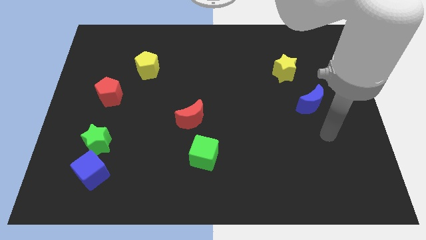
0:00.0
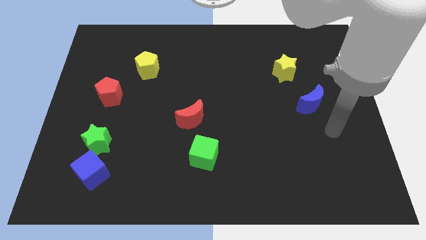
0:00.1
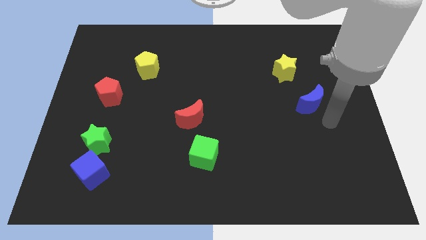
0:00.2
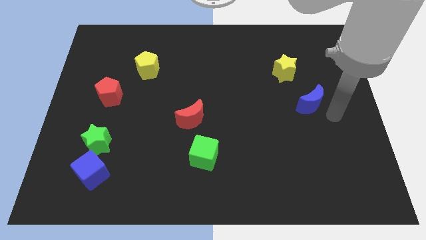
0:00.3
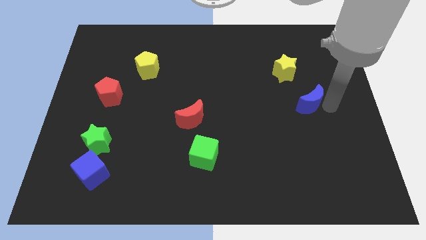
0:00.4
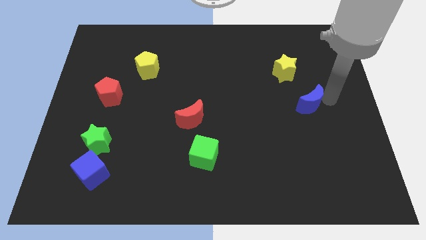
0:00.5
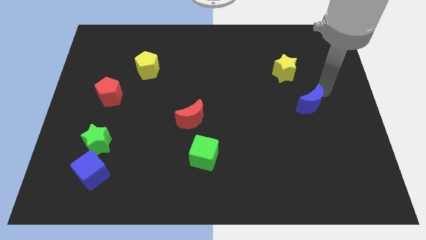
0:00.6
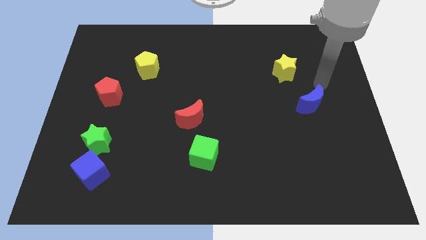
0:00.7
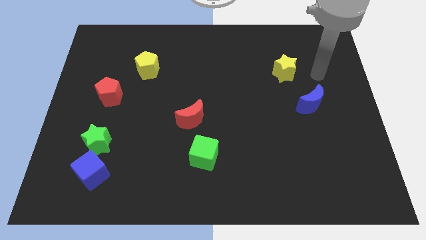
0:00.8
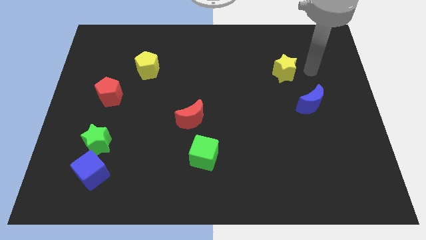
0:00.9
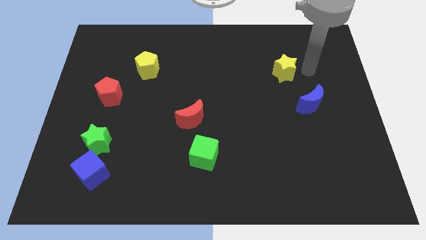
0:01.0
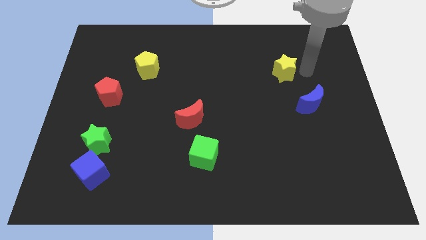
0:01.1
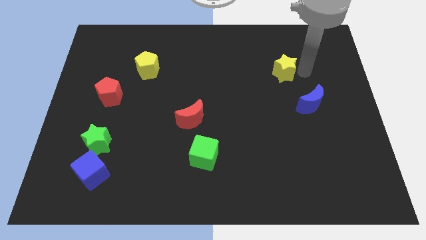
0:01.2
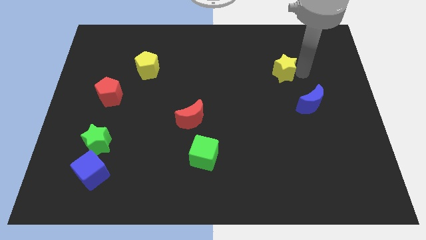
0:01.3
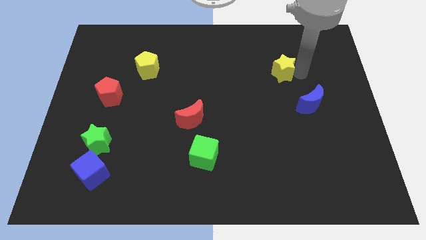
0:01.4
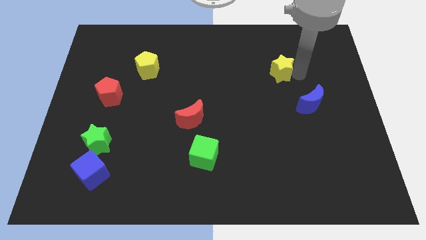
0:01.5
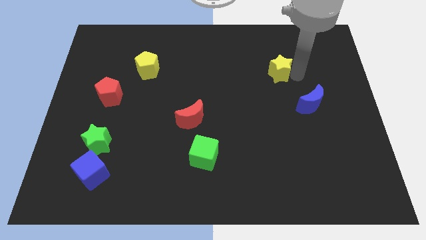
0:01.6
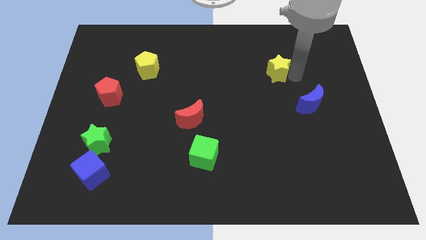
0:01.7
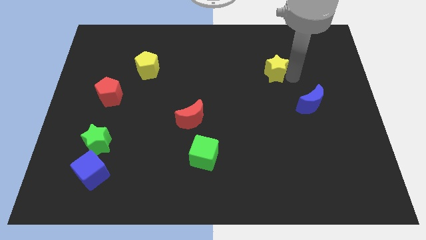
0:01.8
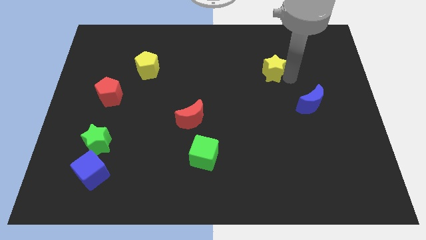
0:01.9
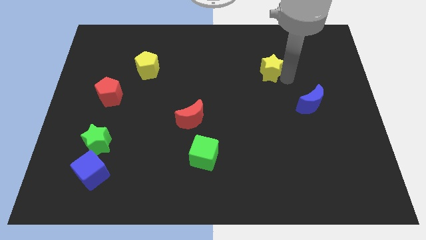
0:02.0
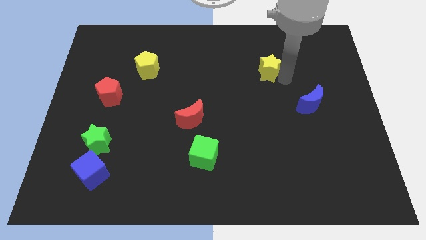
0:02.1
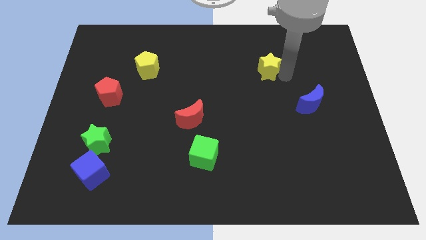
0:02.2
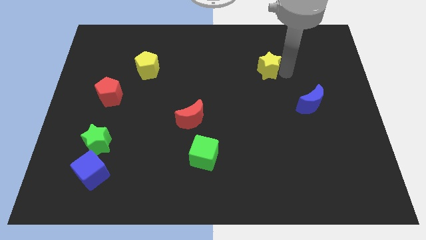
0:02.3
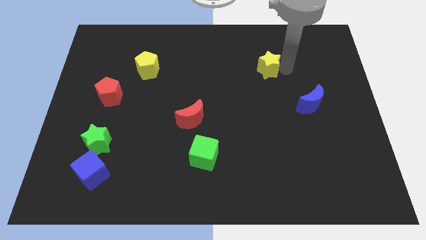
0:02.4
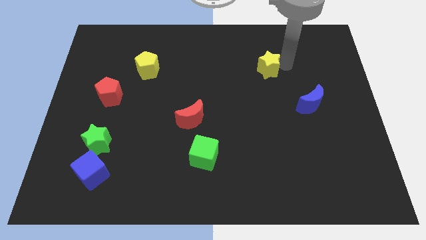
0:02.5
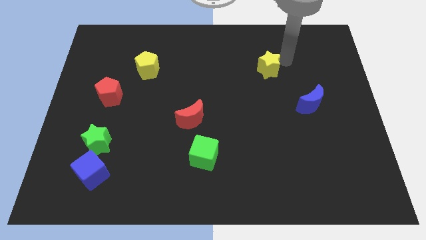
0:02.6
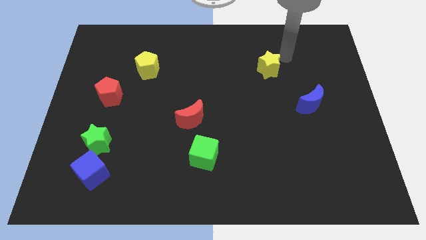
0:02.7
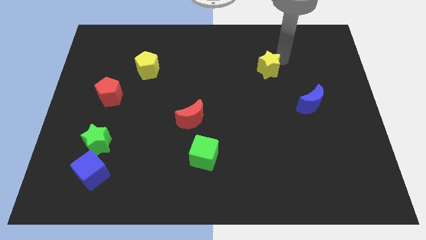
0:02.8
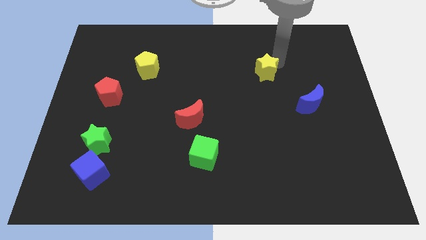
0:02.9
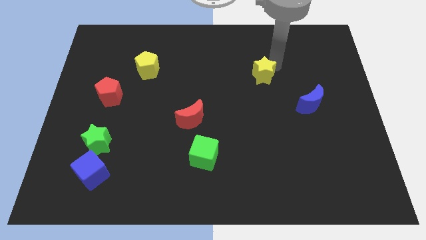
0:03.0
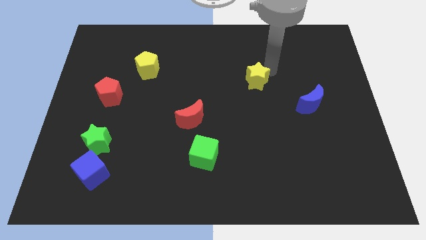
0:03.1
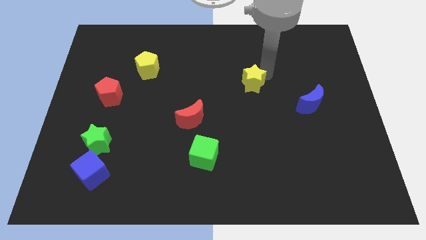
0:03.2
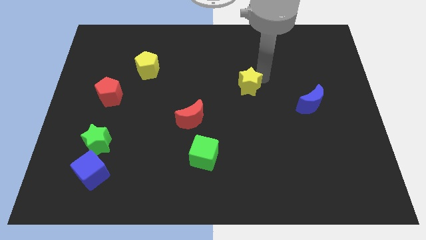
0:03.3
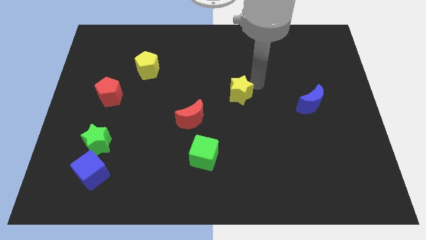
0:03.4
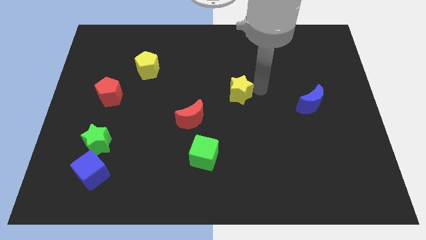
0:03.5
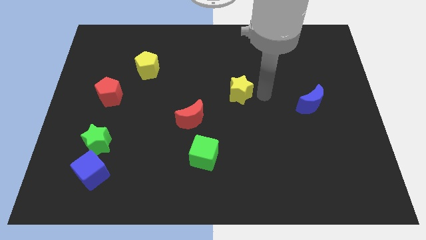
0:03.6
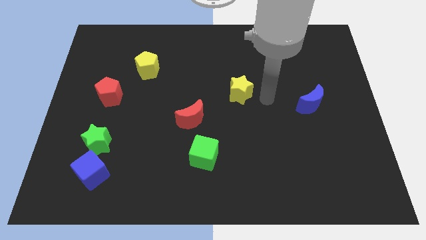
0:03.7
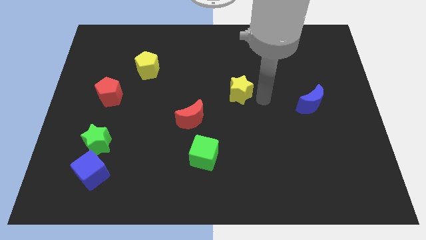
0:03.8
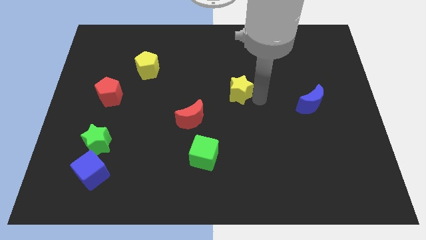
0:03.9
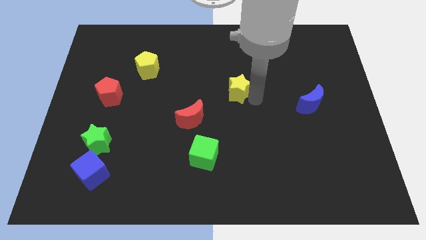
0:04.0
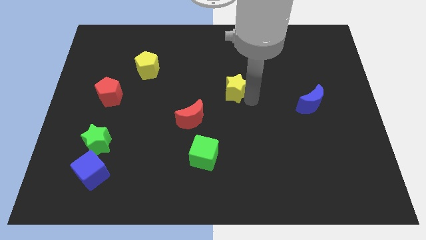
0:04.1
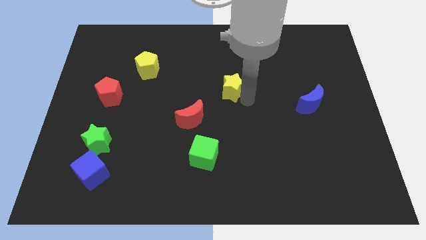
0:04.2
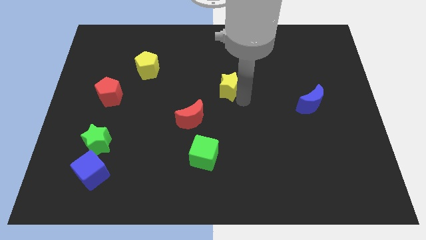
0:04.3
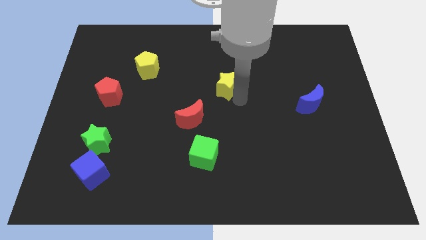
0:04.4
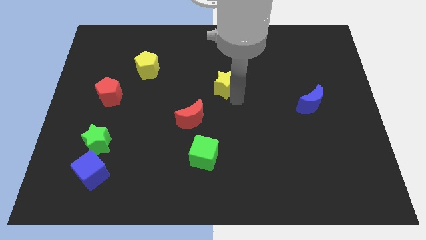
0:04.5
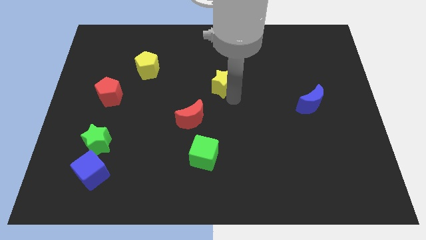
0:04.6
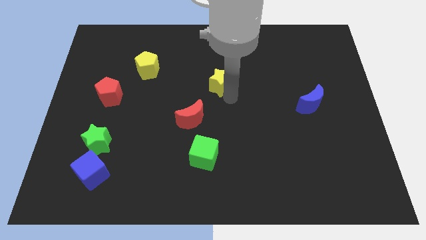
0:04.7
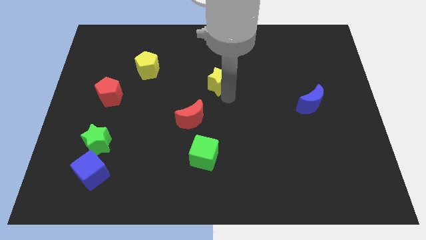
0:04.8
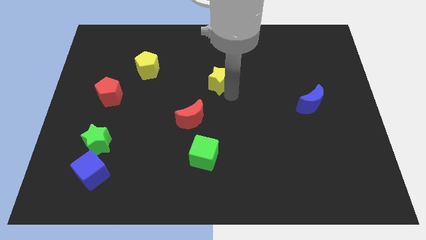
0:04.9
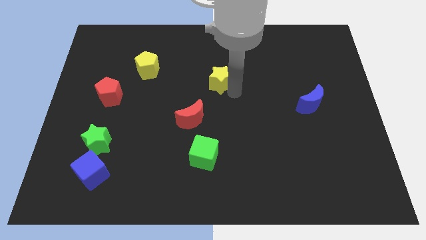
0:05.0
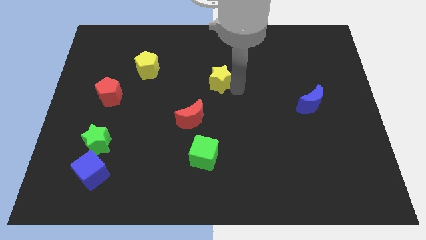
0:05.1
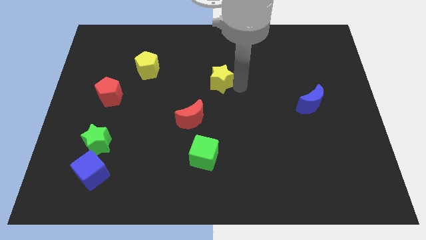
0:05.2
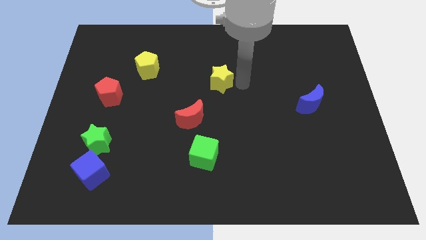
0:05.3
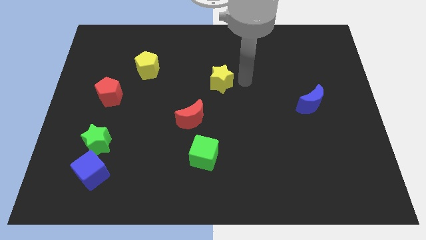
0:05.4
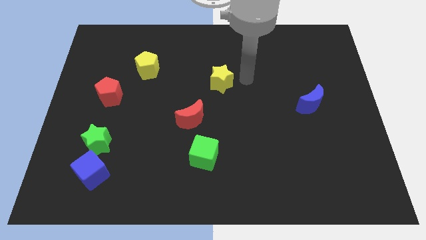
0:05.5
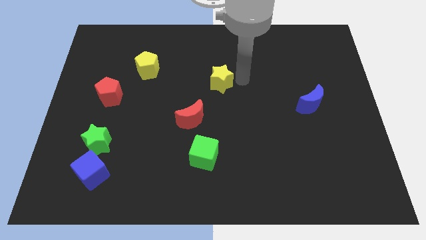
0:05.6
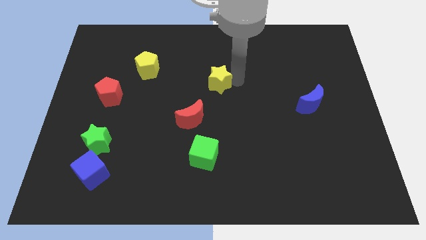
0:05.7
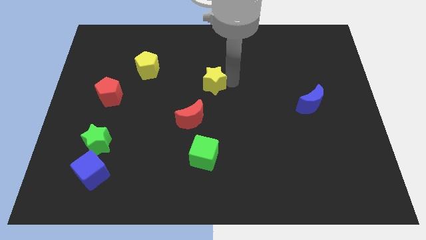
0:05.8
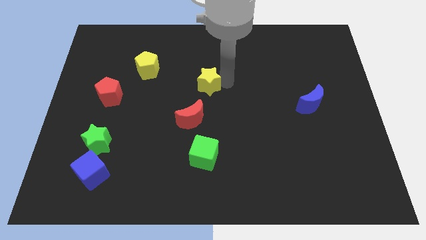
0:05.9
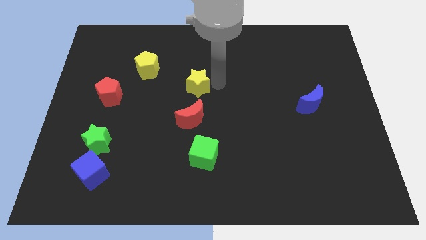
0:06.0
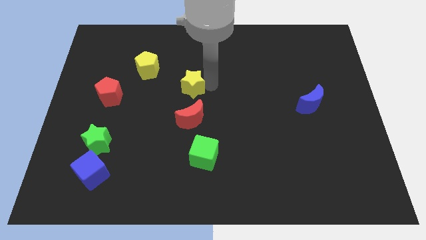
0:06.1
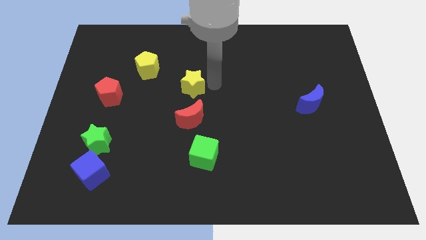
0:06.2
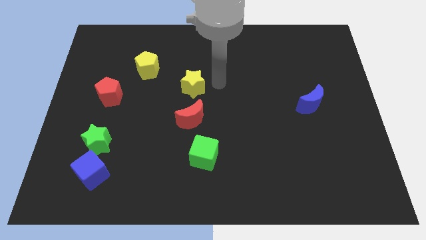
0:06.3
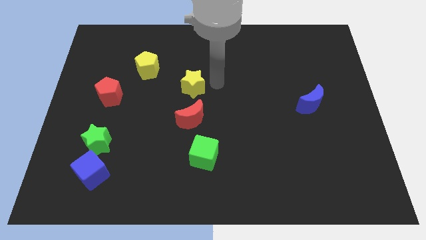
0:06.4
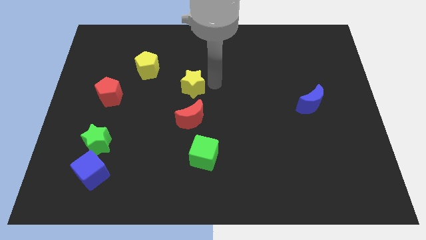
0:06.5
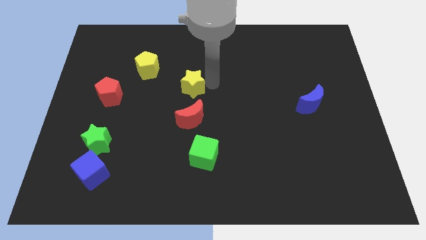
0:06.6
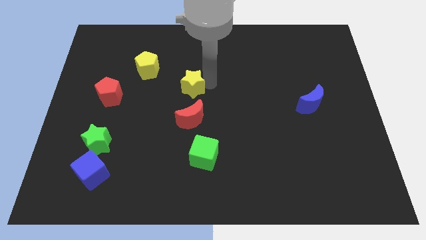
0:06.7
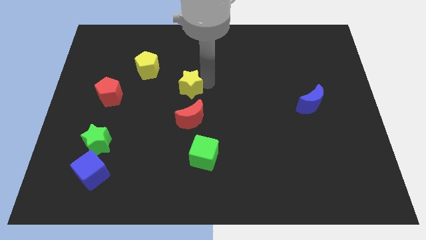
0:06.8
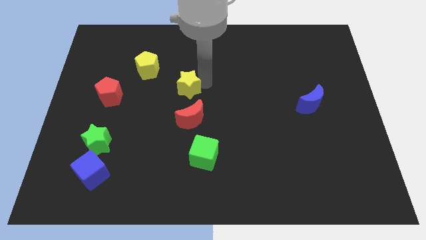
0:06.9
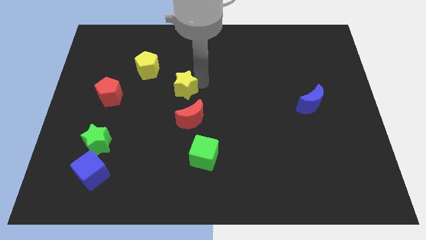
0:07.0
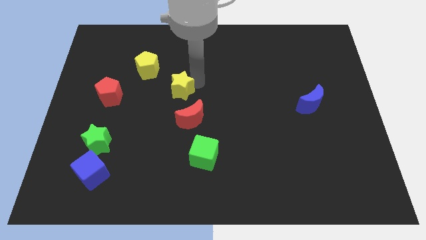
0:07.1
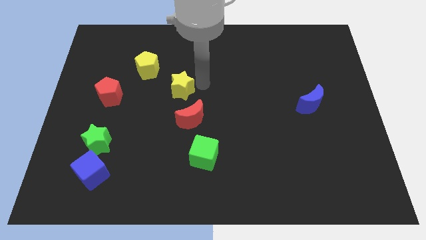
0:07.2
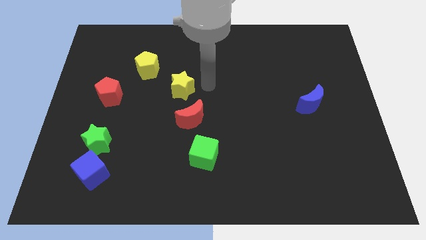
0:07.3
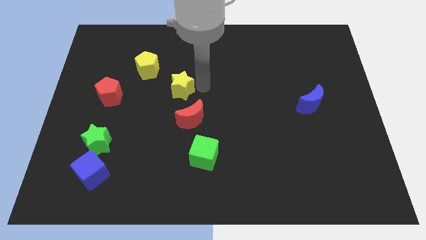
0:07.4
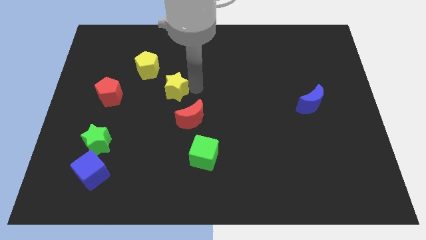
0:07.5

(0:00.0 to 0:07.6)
push the yellow star right of the red pentagon
